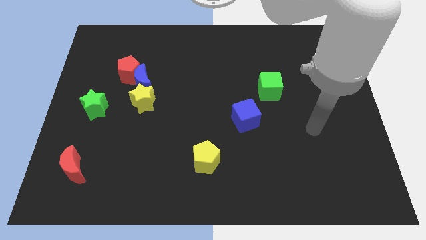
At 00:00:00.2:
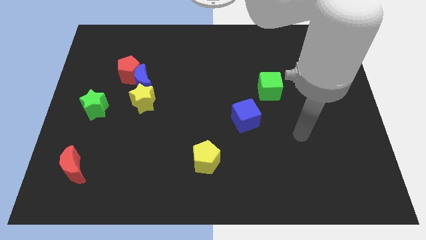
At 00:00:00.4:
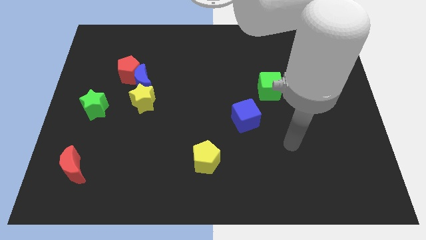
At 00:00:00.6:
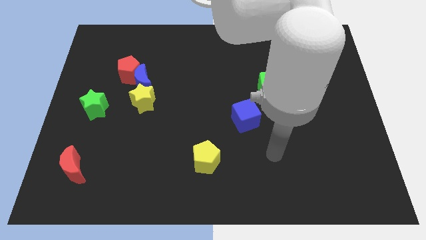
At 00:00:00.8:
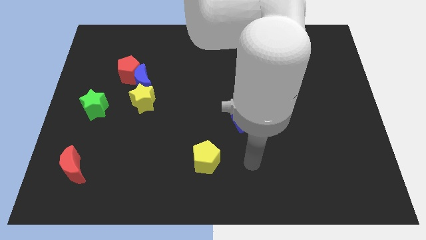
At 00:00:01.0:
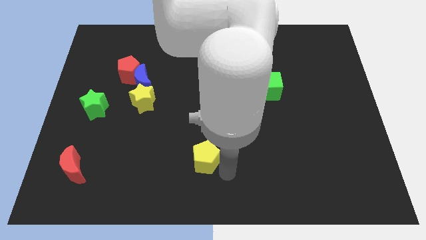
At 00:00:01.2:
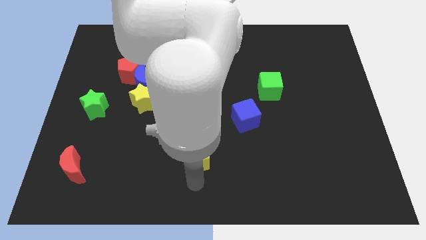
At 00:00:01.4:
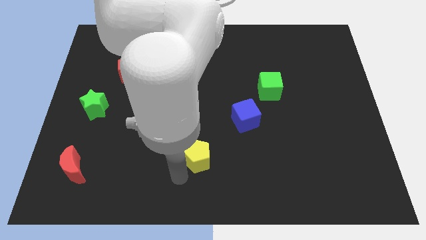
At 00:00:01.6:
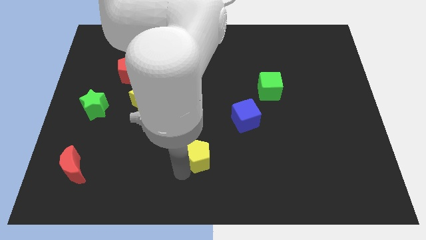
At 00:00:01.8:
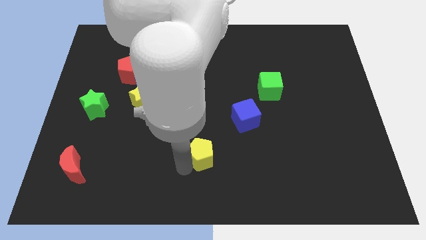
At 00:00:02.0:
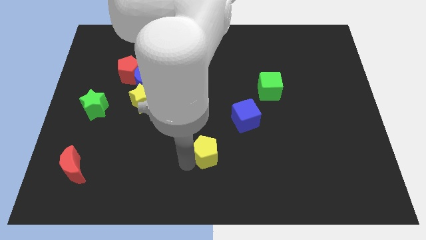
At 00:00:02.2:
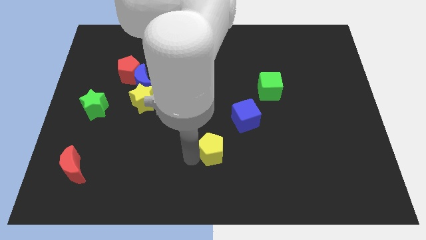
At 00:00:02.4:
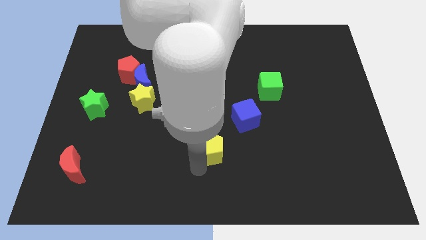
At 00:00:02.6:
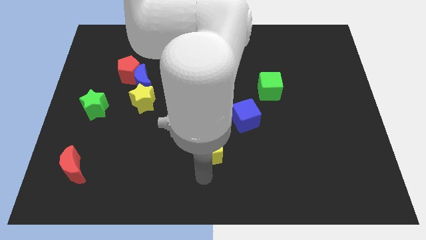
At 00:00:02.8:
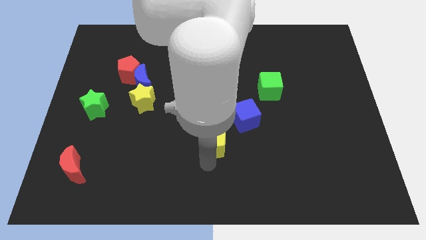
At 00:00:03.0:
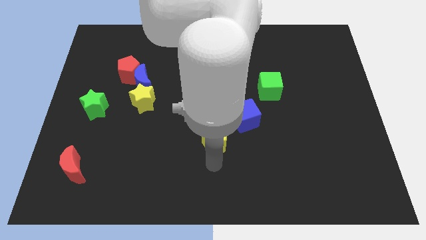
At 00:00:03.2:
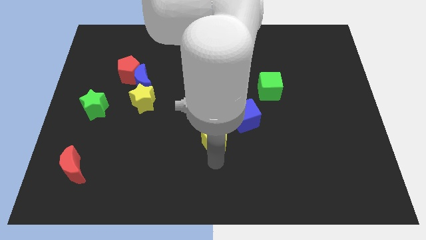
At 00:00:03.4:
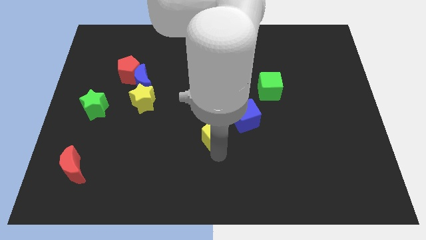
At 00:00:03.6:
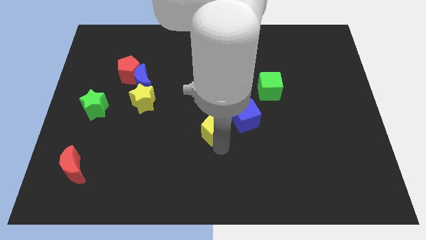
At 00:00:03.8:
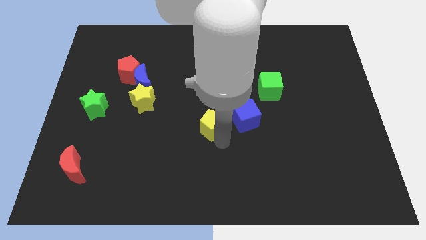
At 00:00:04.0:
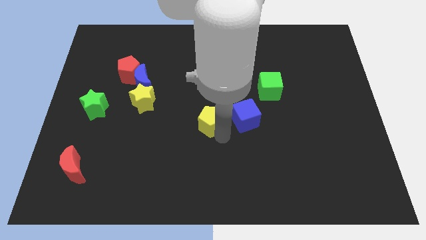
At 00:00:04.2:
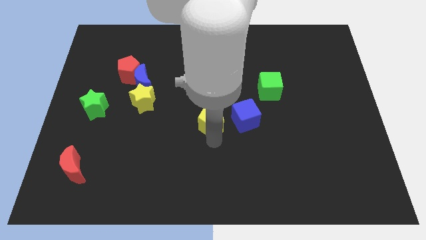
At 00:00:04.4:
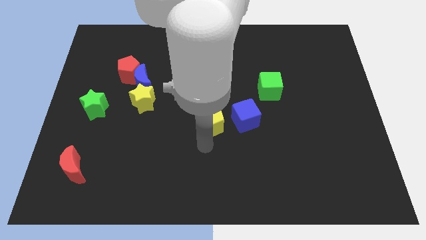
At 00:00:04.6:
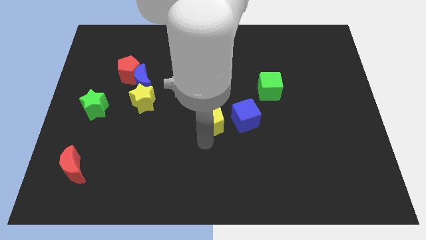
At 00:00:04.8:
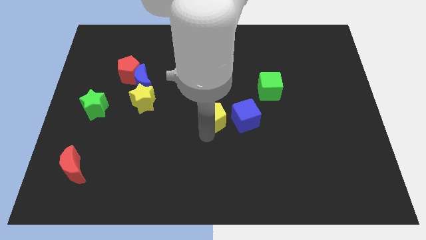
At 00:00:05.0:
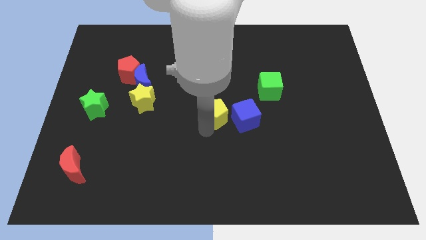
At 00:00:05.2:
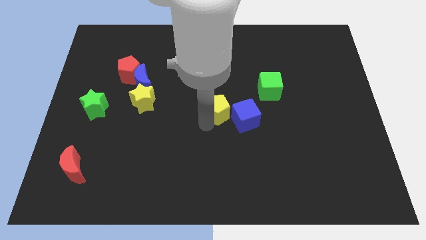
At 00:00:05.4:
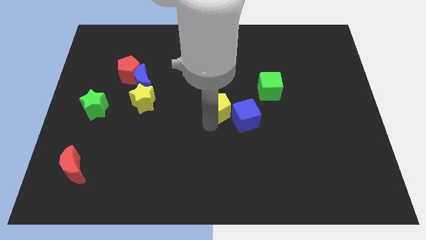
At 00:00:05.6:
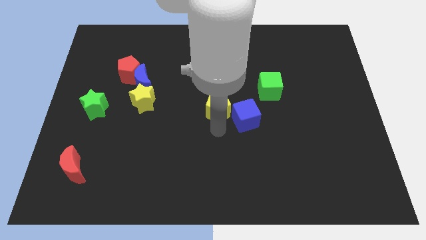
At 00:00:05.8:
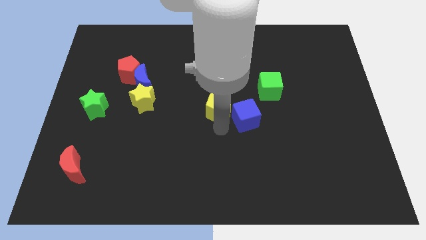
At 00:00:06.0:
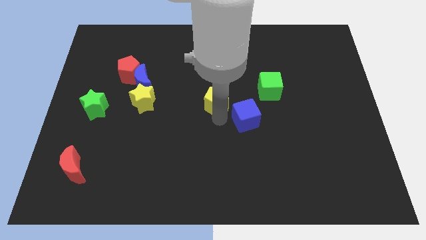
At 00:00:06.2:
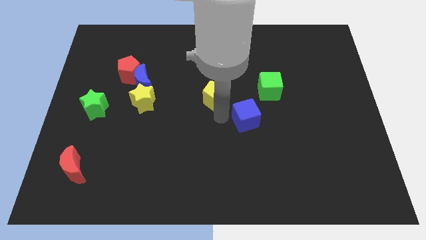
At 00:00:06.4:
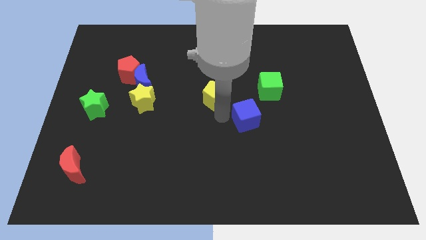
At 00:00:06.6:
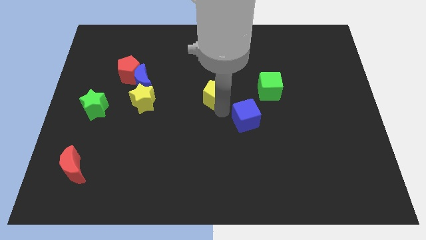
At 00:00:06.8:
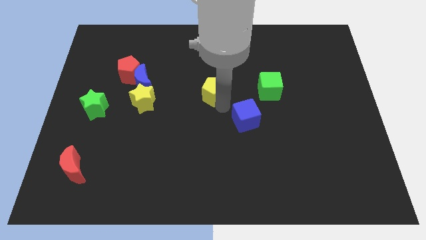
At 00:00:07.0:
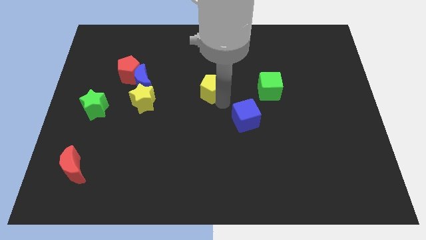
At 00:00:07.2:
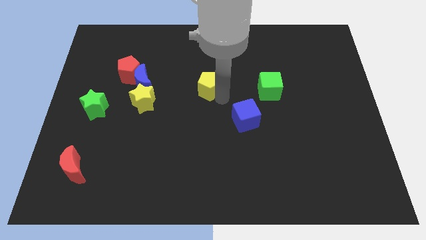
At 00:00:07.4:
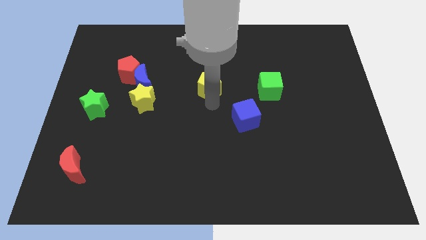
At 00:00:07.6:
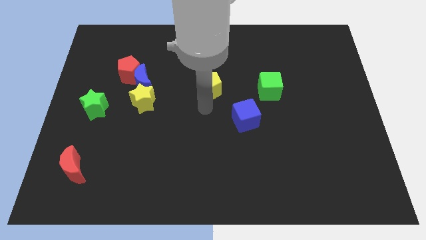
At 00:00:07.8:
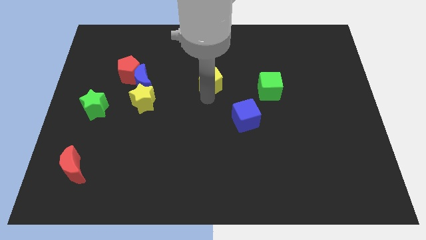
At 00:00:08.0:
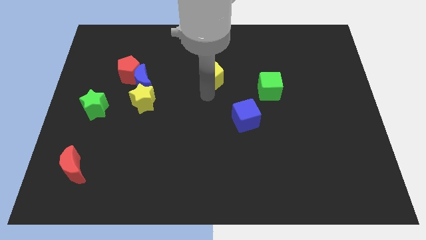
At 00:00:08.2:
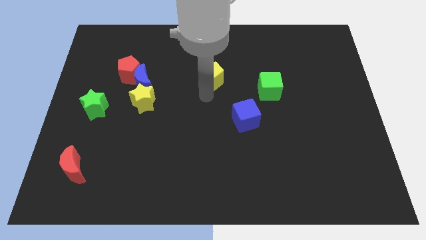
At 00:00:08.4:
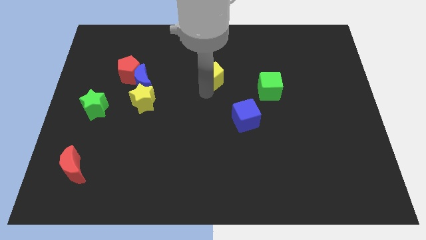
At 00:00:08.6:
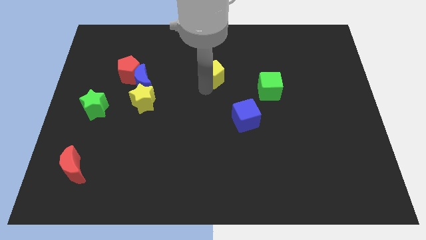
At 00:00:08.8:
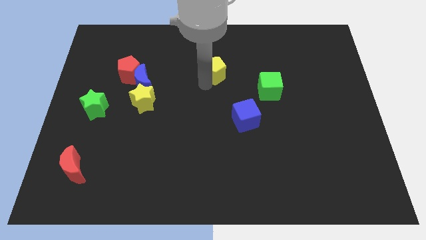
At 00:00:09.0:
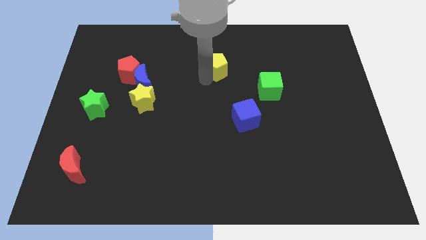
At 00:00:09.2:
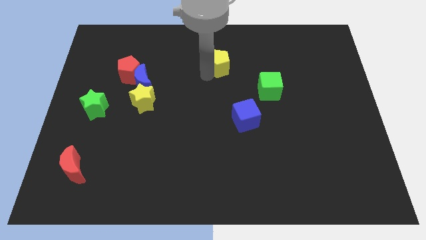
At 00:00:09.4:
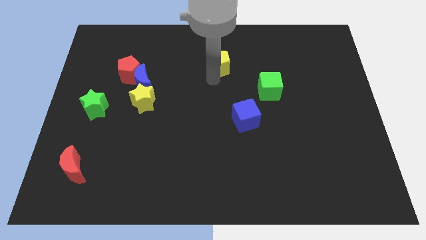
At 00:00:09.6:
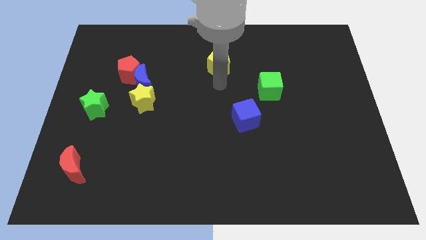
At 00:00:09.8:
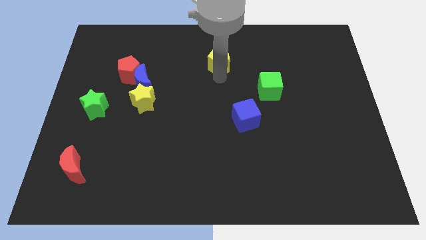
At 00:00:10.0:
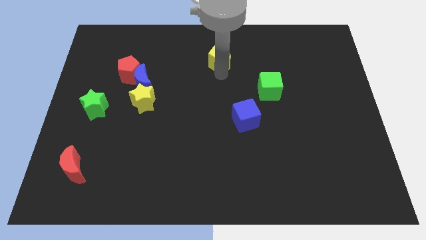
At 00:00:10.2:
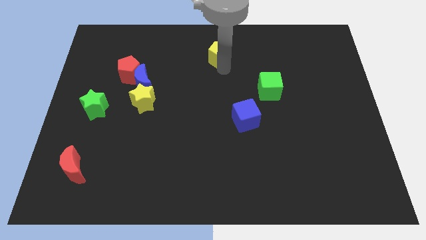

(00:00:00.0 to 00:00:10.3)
put the yellow pentagon to the towards your base

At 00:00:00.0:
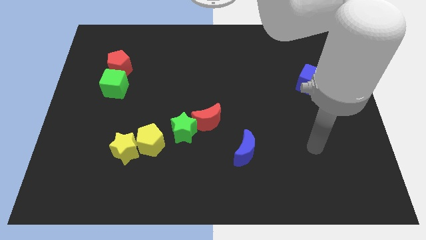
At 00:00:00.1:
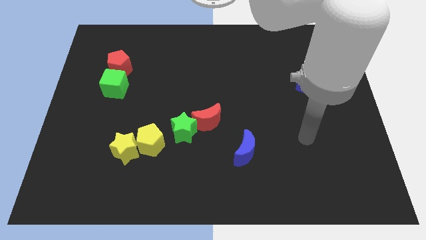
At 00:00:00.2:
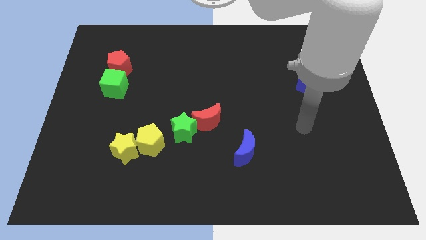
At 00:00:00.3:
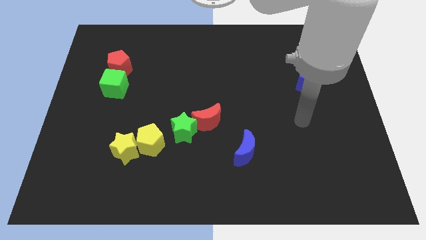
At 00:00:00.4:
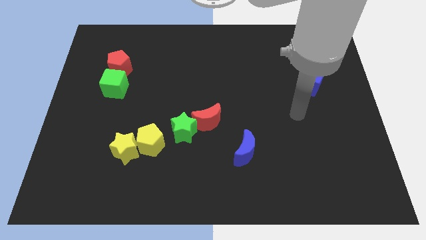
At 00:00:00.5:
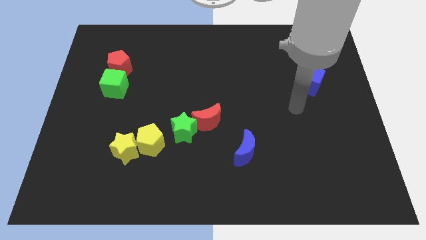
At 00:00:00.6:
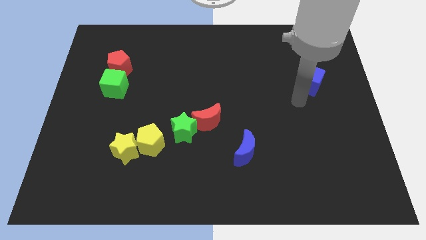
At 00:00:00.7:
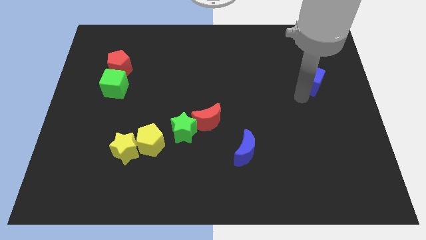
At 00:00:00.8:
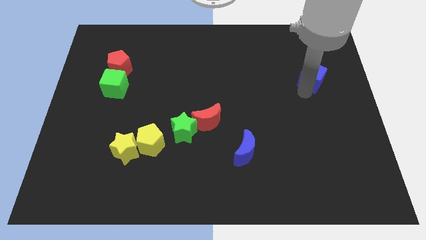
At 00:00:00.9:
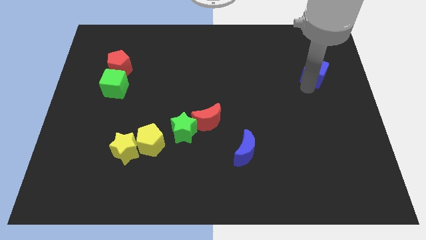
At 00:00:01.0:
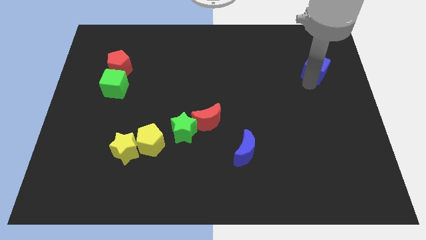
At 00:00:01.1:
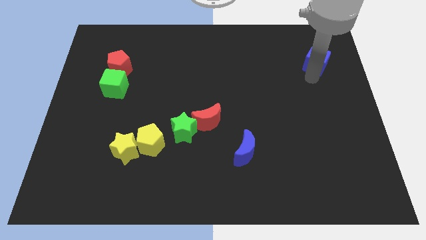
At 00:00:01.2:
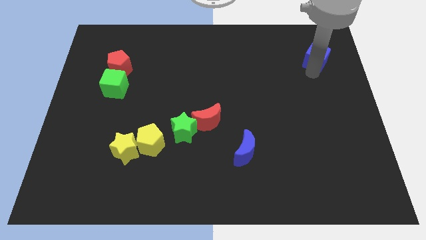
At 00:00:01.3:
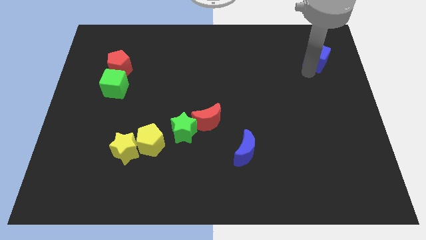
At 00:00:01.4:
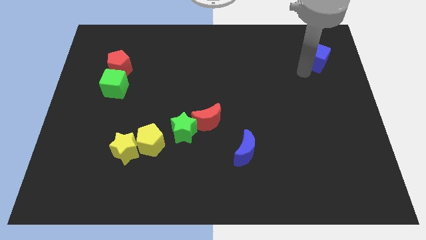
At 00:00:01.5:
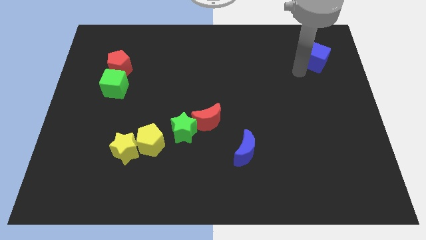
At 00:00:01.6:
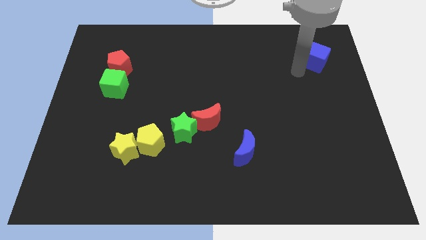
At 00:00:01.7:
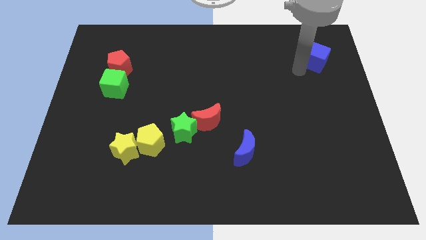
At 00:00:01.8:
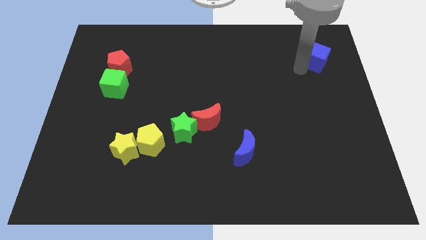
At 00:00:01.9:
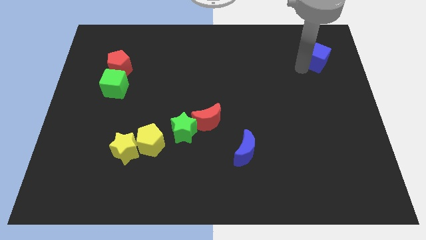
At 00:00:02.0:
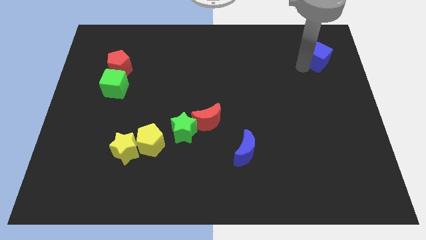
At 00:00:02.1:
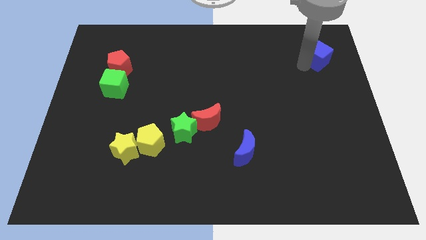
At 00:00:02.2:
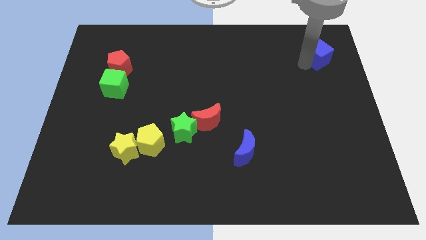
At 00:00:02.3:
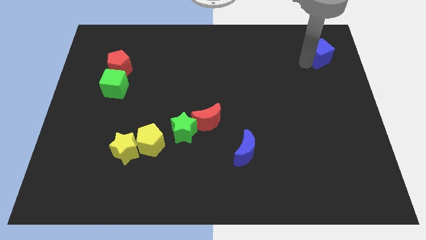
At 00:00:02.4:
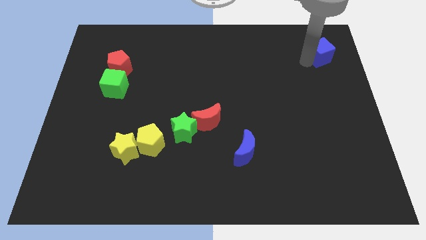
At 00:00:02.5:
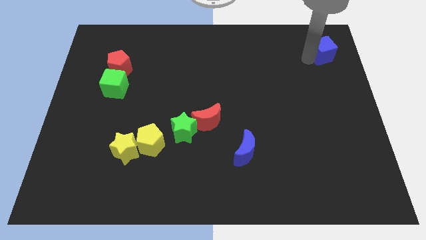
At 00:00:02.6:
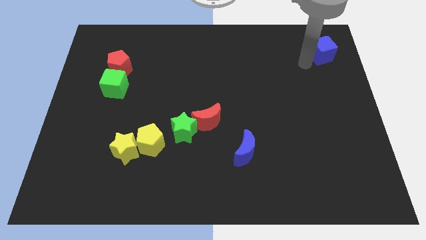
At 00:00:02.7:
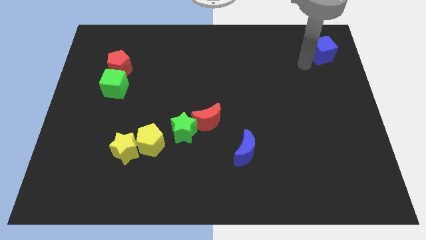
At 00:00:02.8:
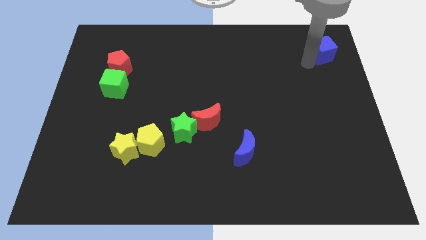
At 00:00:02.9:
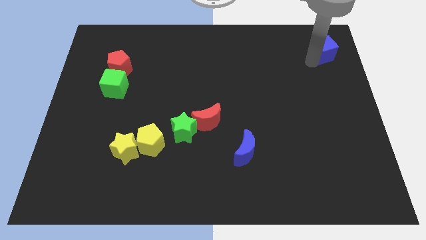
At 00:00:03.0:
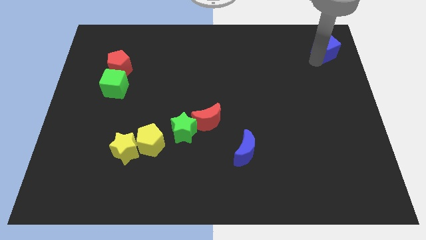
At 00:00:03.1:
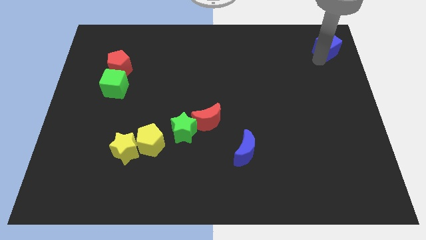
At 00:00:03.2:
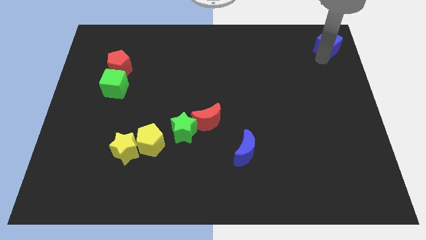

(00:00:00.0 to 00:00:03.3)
slide the blue cube to the upper right corner
